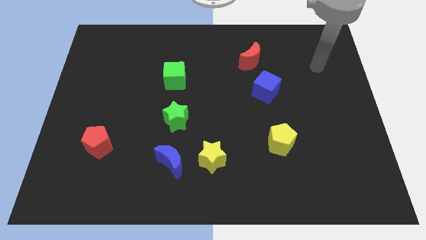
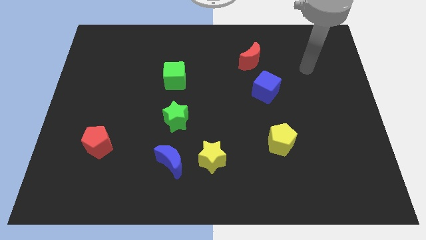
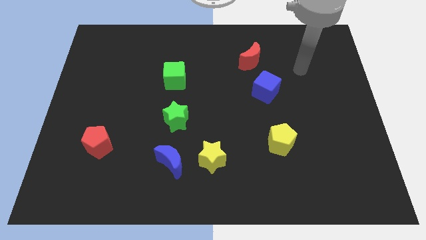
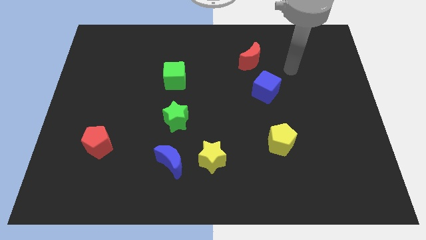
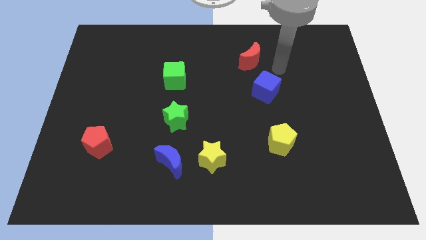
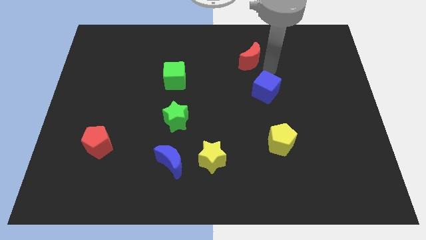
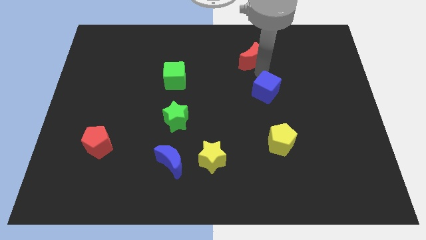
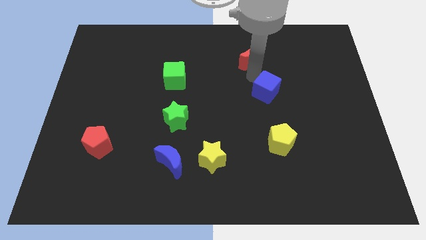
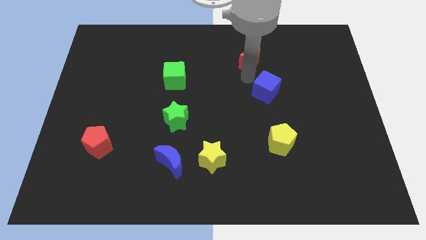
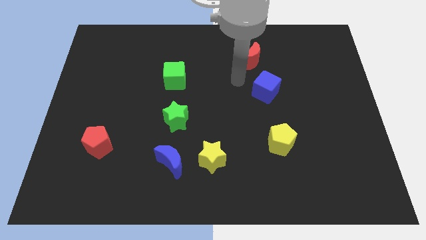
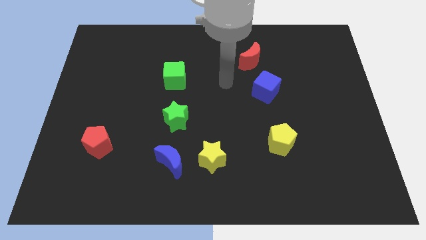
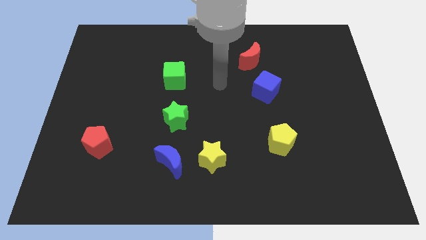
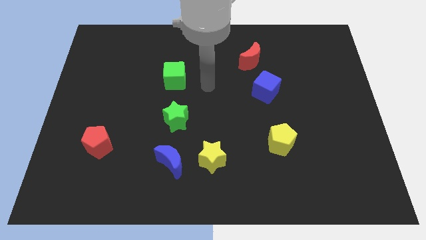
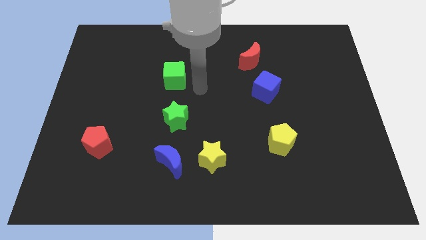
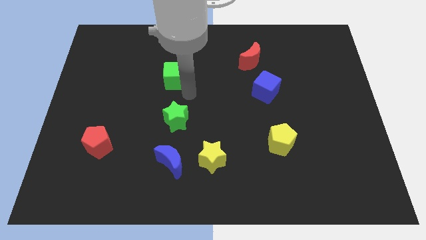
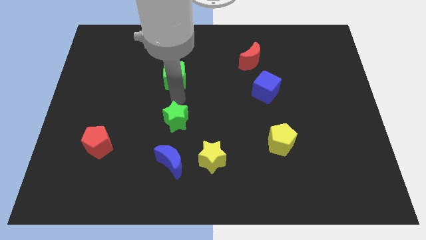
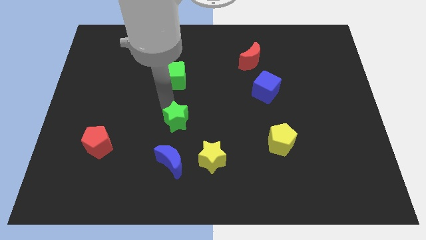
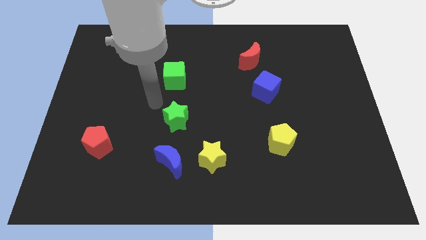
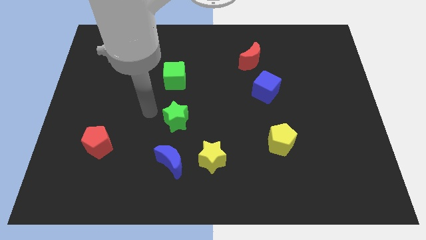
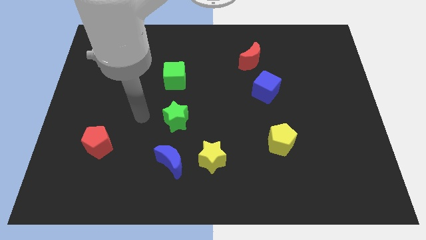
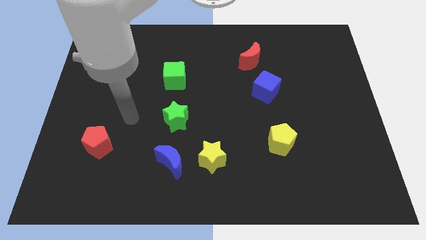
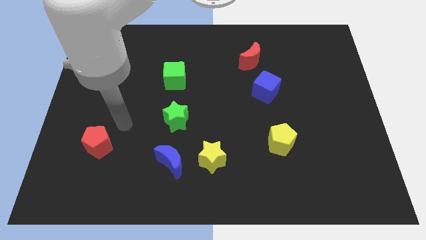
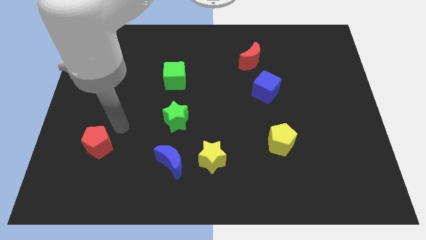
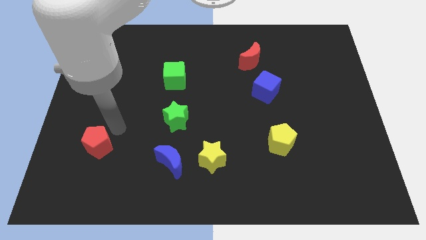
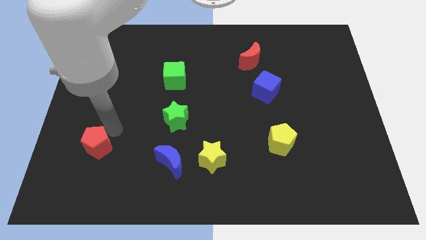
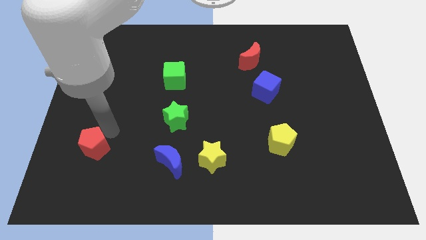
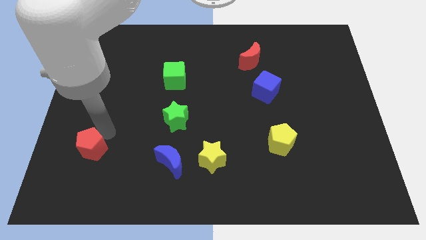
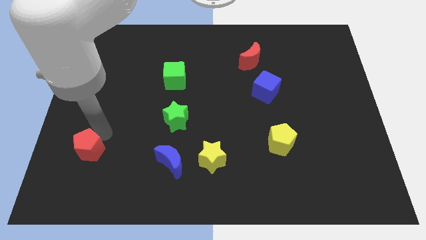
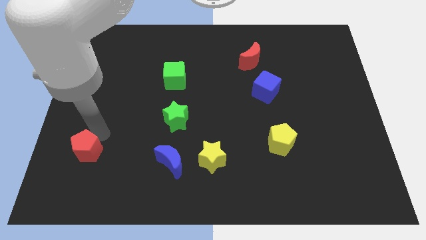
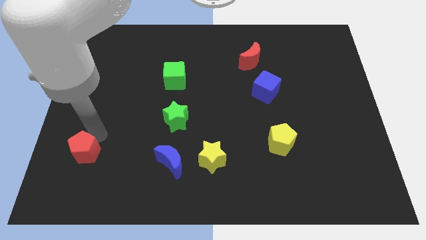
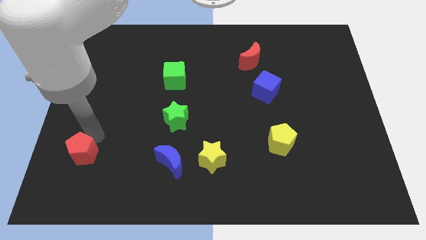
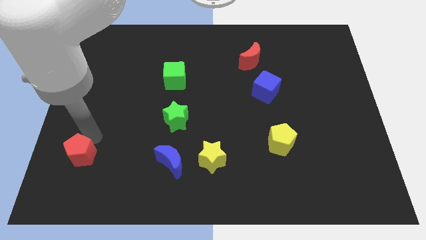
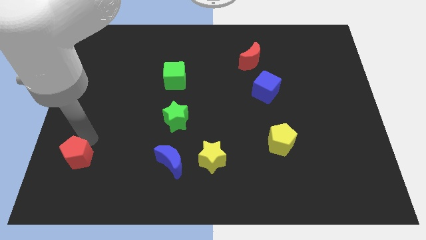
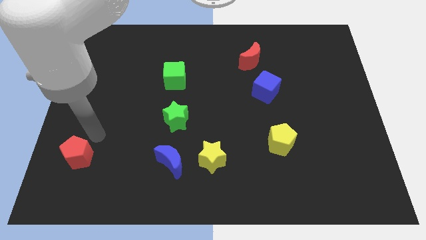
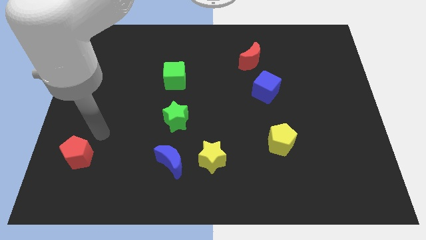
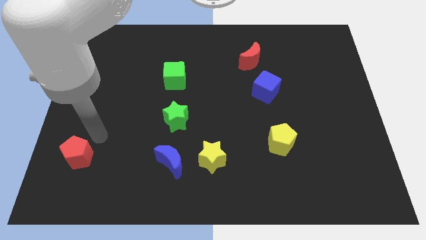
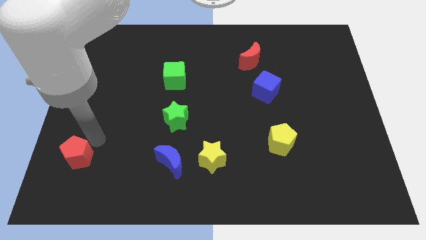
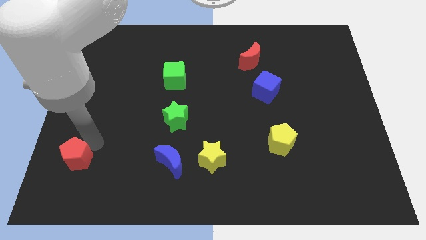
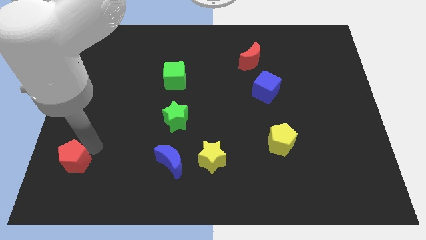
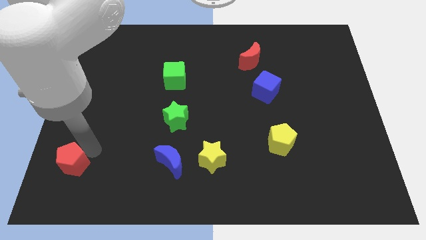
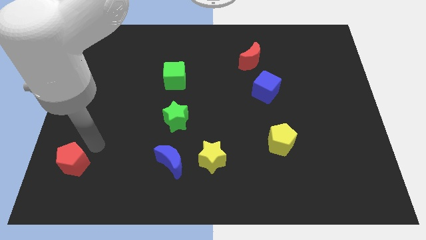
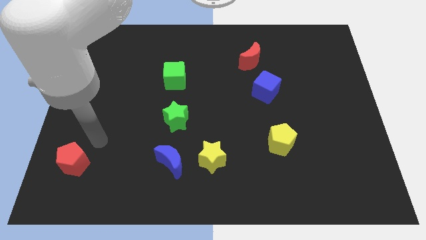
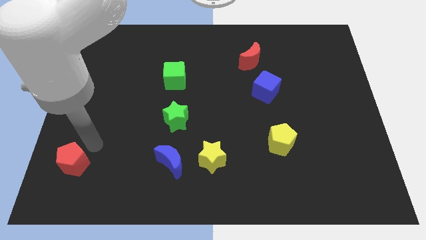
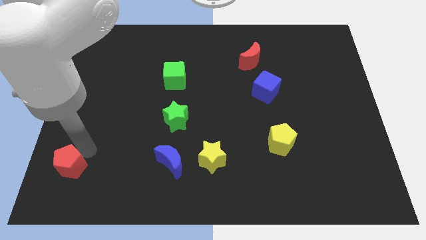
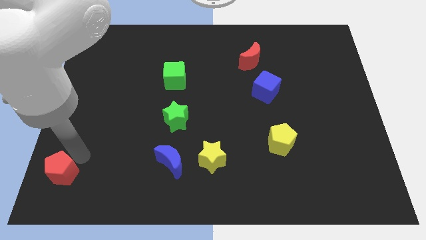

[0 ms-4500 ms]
put the red pentagon to the bottom left

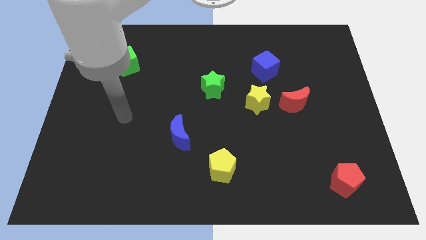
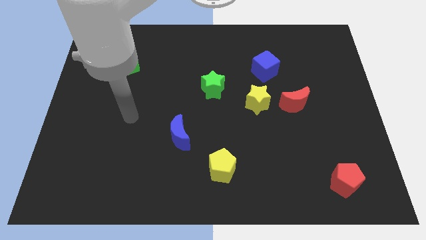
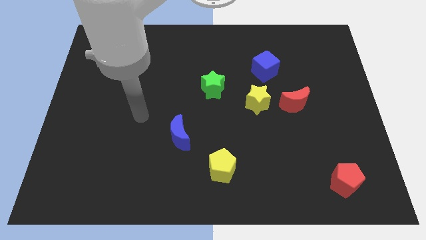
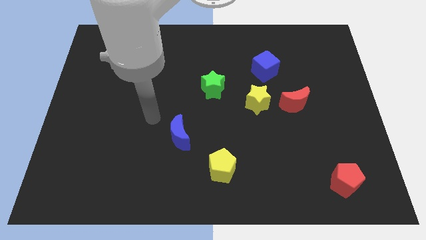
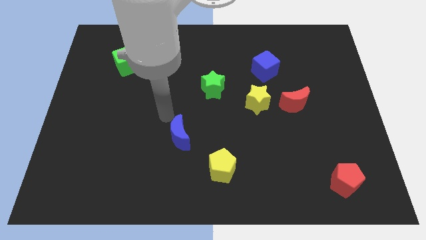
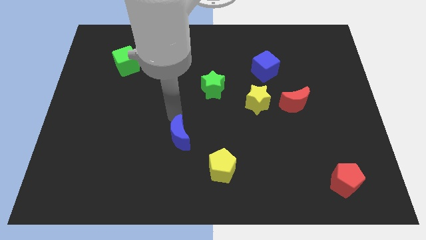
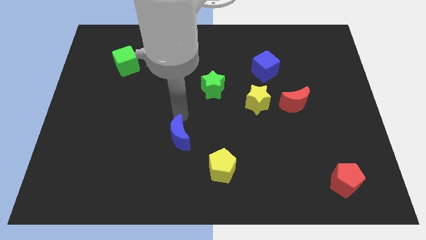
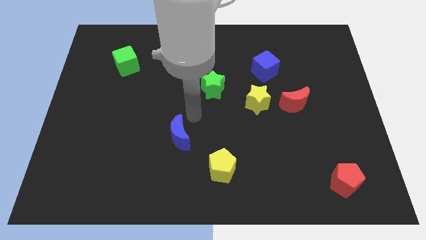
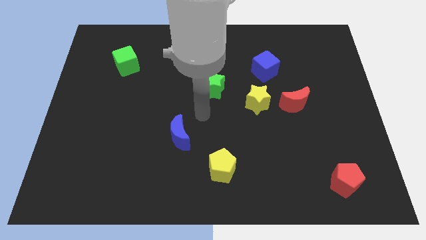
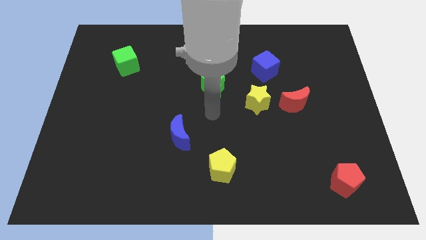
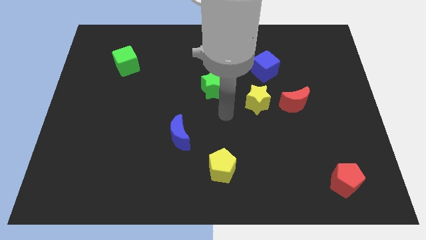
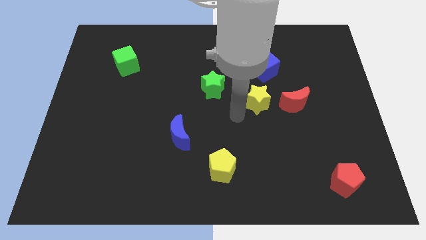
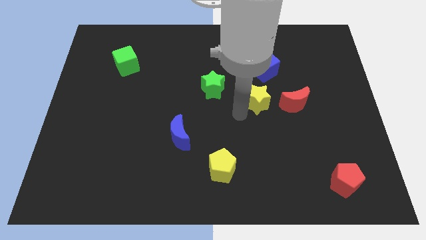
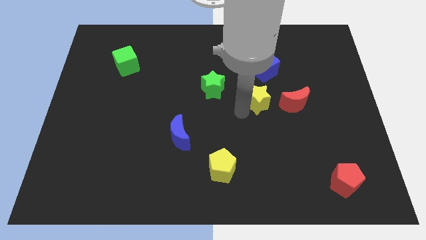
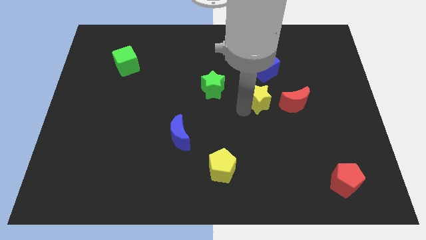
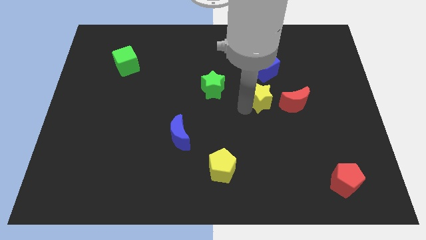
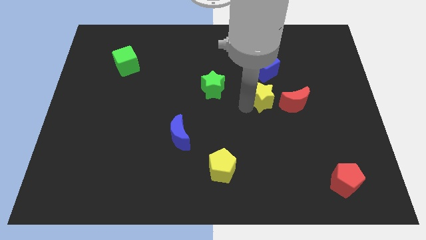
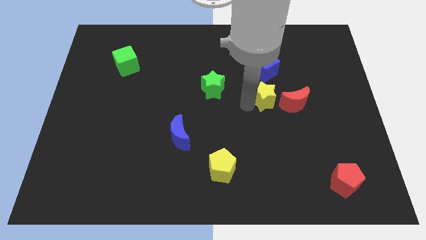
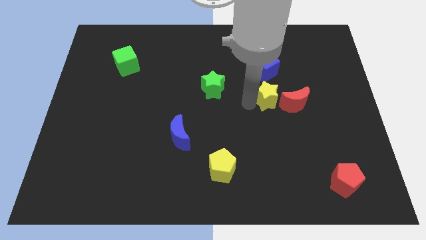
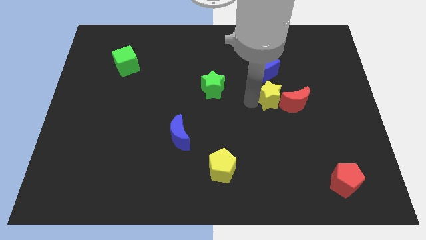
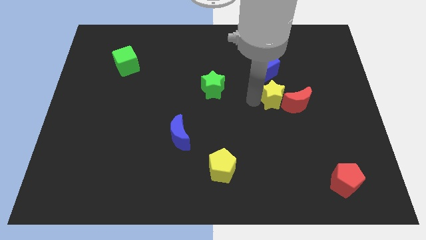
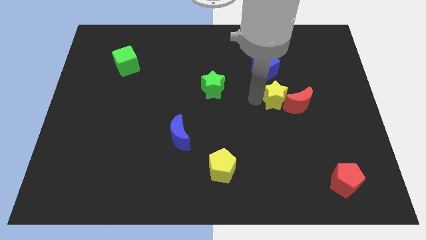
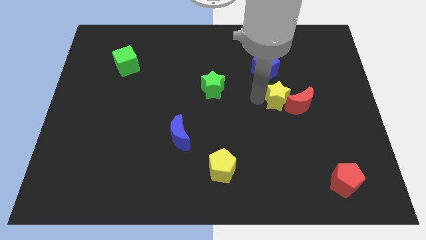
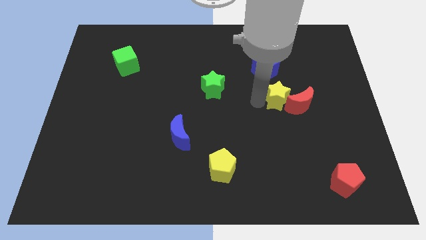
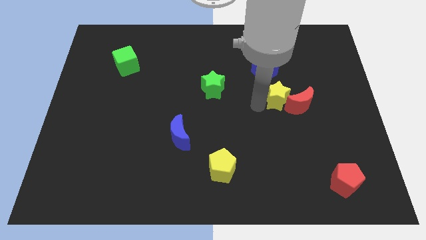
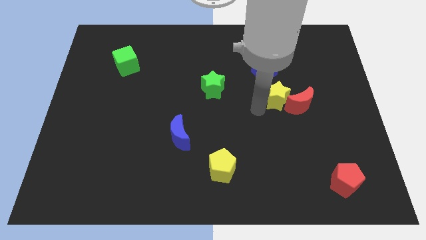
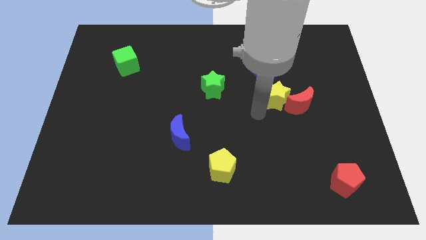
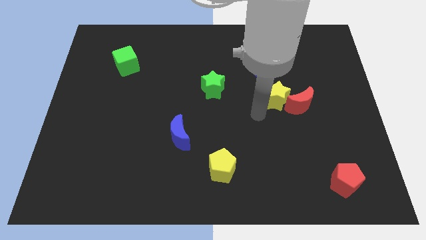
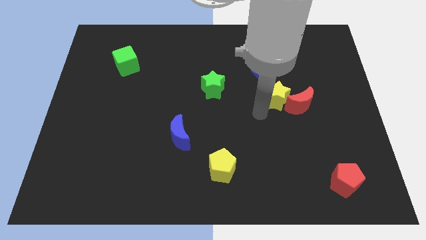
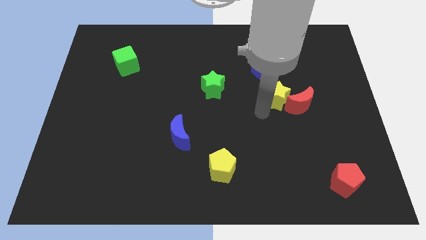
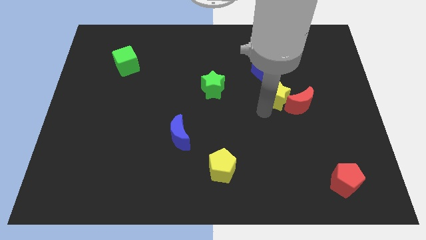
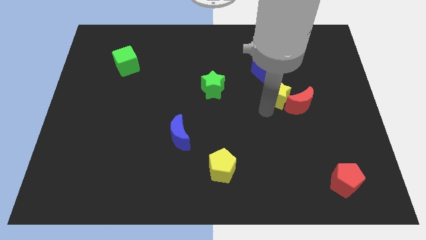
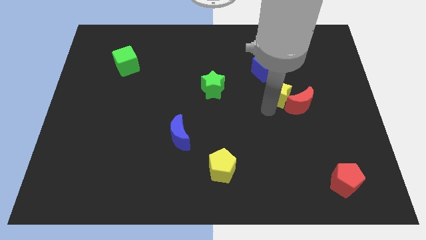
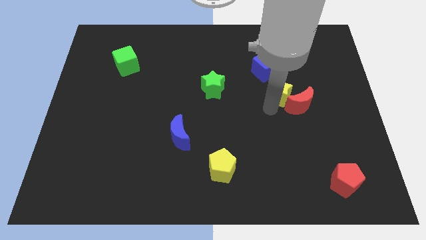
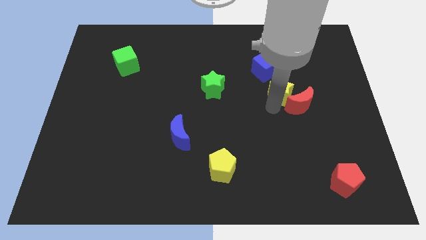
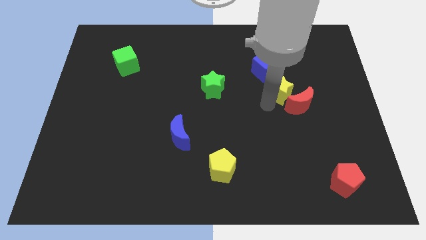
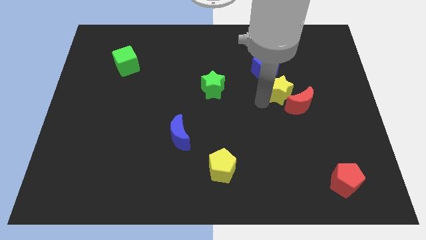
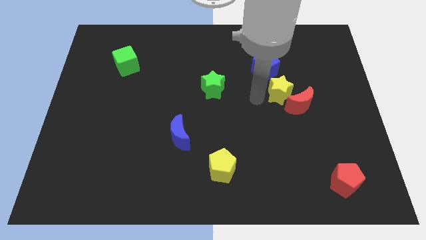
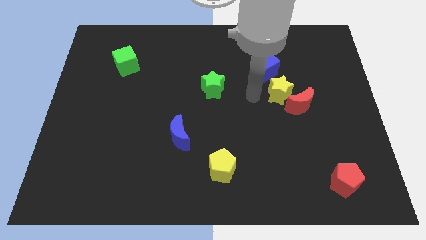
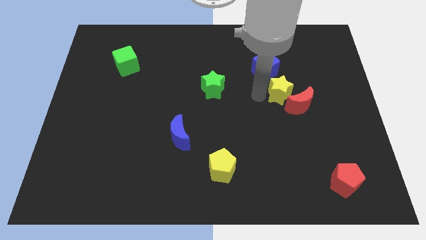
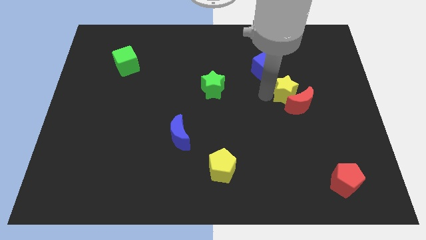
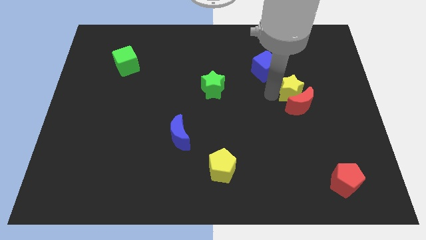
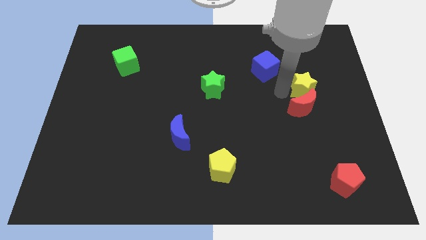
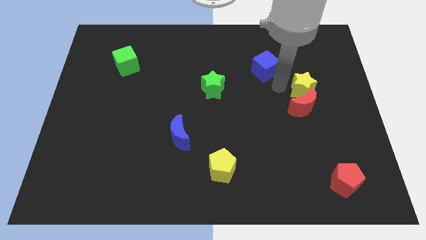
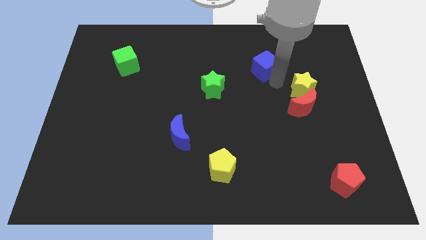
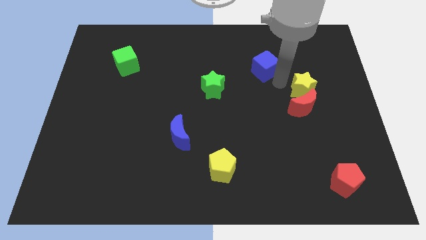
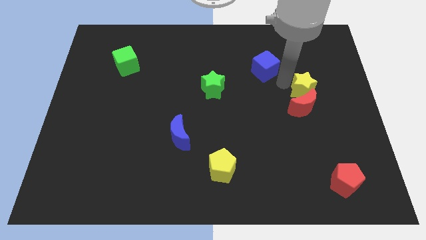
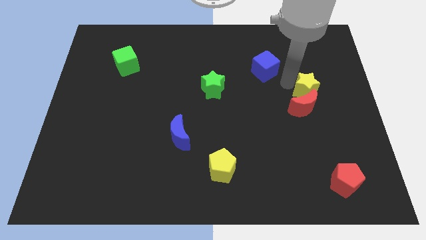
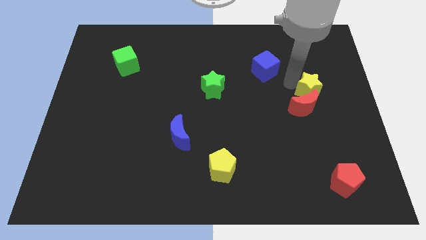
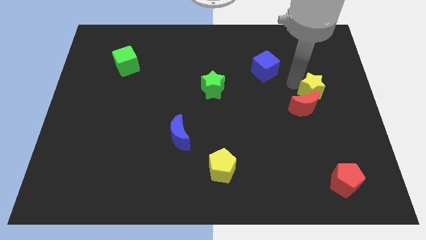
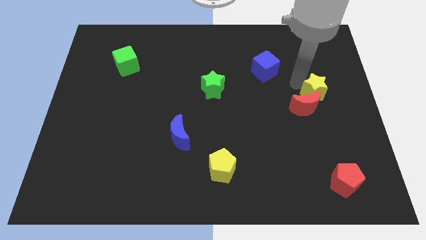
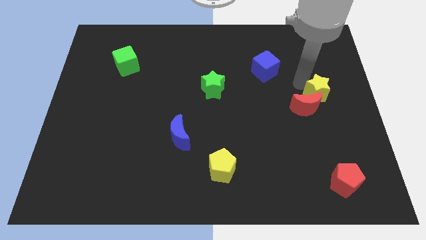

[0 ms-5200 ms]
put the yellow star to the right side
